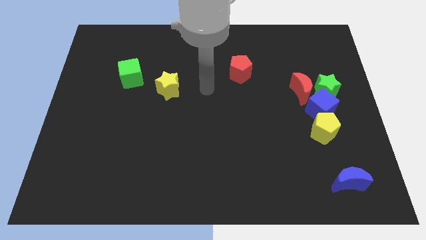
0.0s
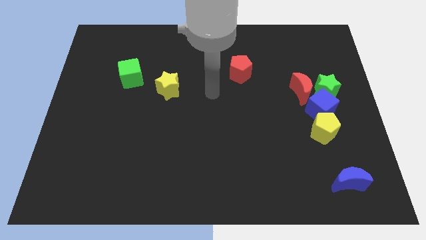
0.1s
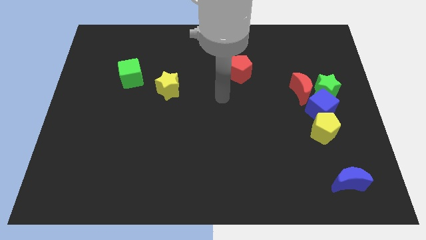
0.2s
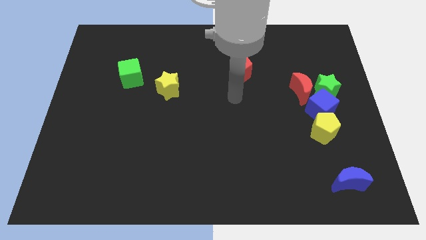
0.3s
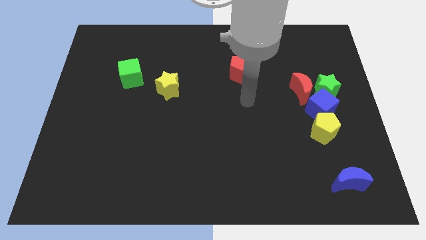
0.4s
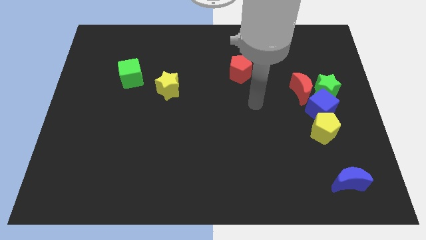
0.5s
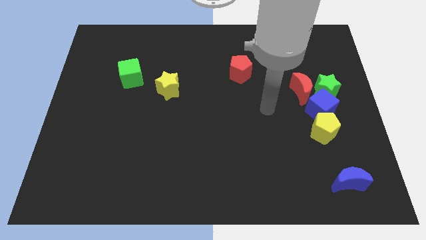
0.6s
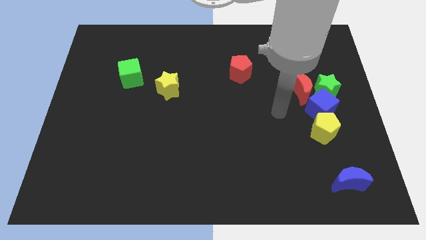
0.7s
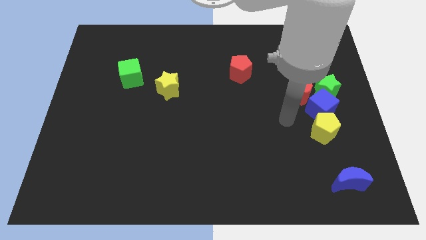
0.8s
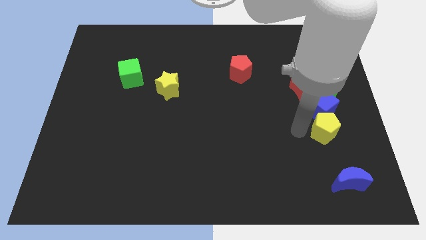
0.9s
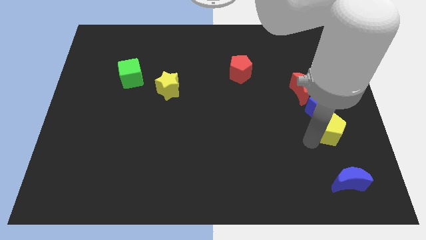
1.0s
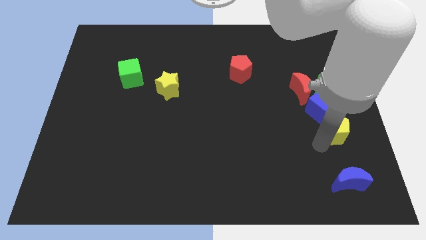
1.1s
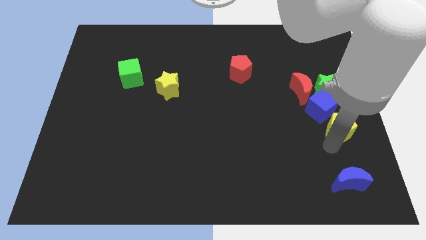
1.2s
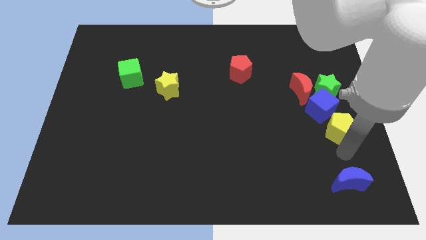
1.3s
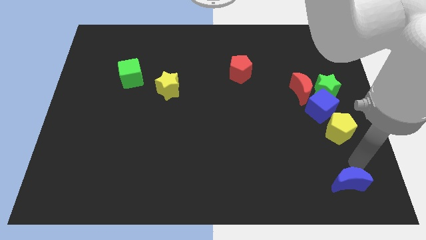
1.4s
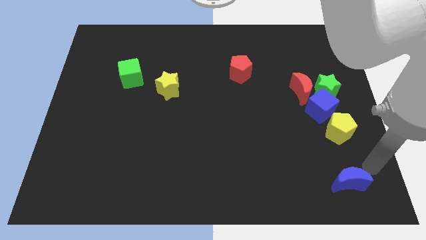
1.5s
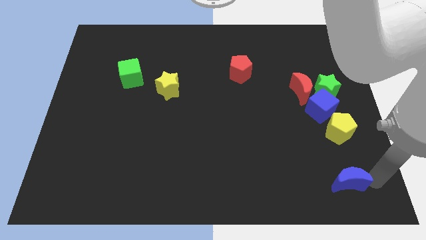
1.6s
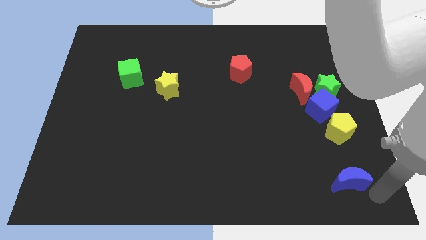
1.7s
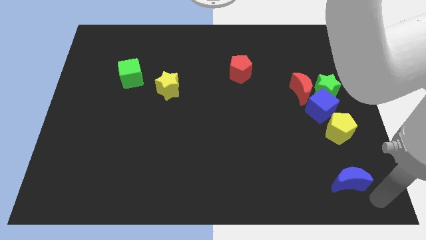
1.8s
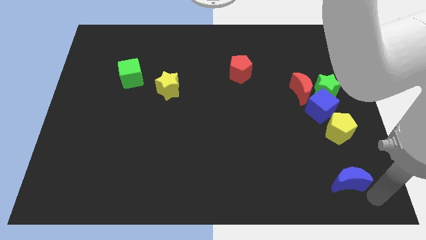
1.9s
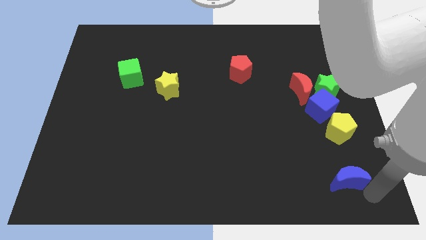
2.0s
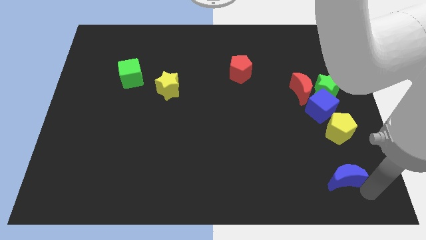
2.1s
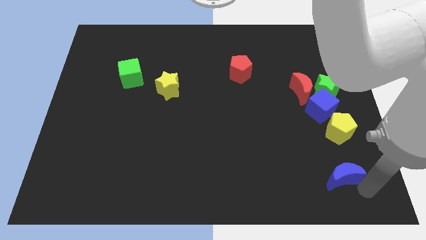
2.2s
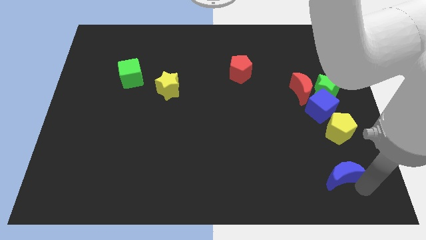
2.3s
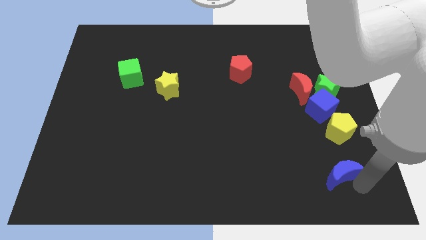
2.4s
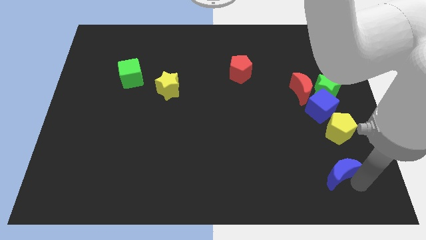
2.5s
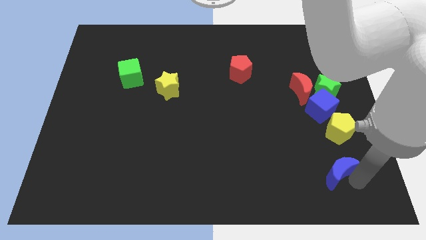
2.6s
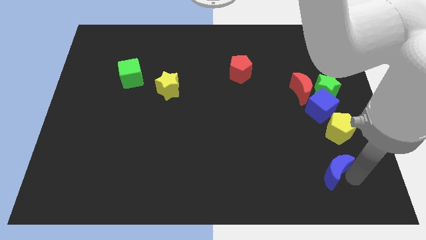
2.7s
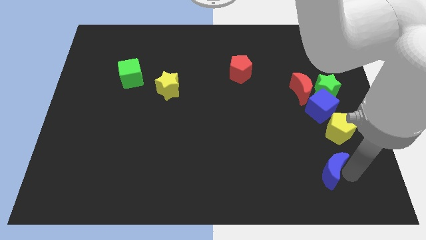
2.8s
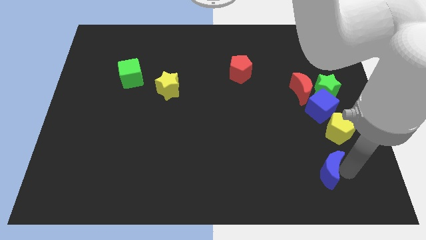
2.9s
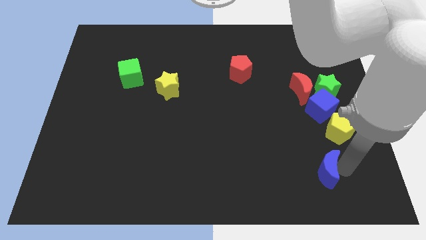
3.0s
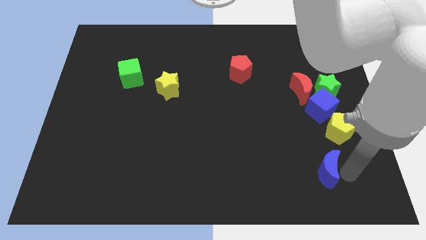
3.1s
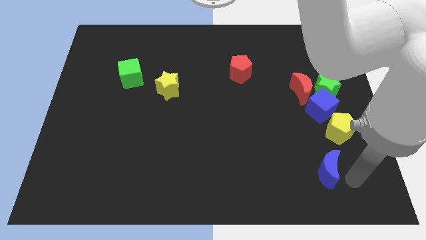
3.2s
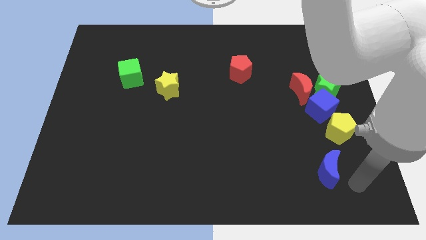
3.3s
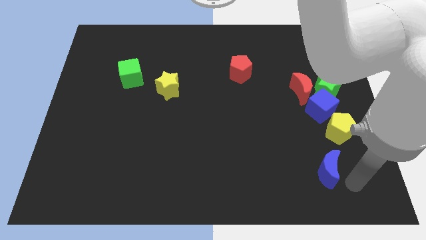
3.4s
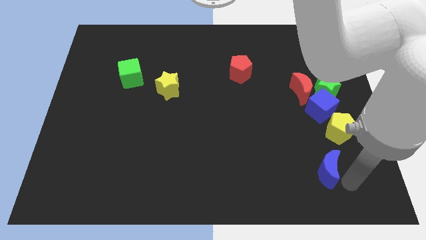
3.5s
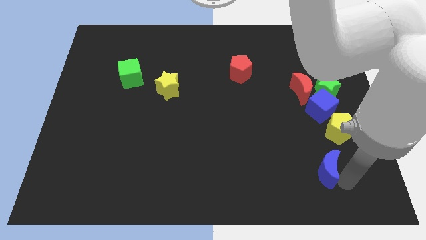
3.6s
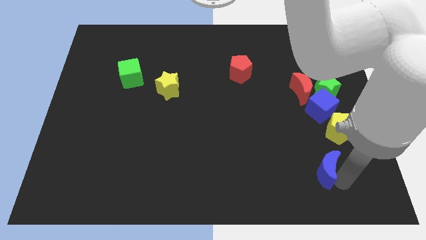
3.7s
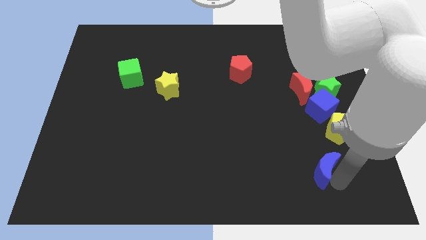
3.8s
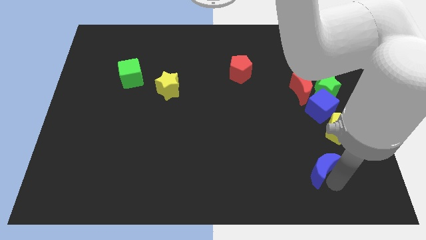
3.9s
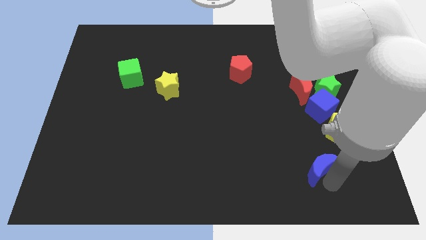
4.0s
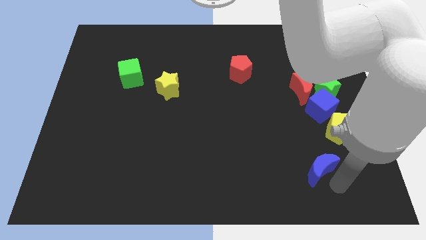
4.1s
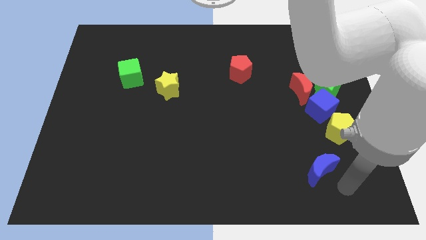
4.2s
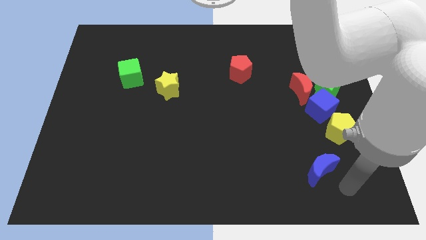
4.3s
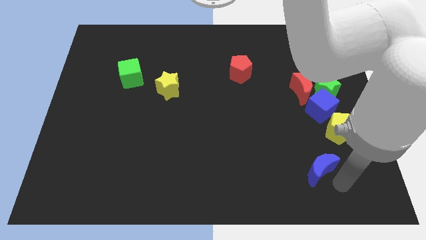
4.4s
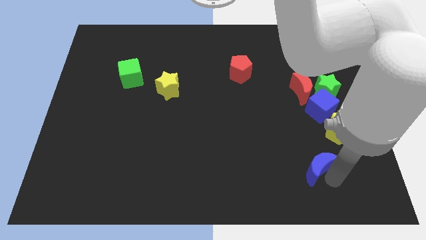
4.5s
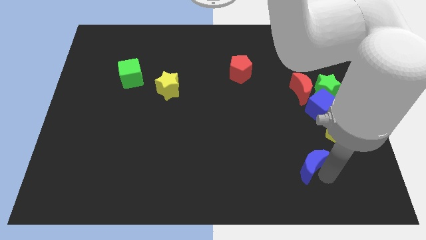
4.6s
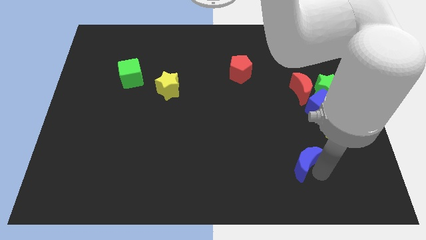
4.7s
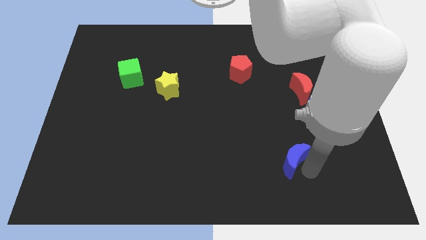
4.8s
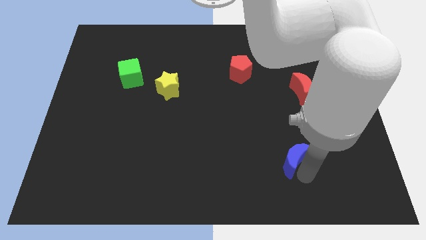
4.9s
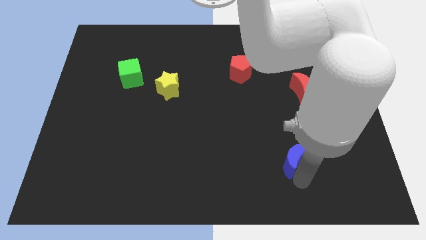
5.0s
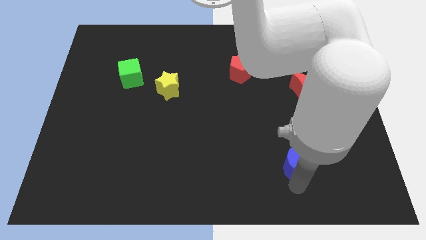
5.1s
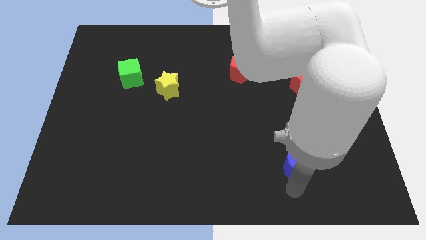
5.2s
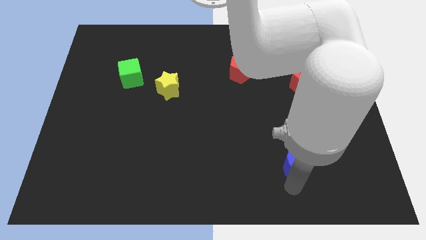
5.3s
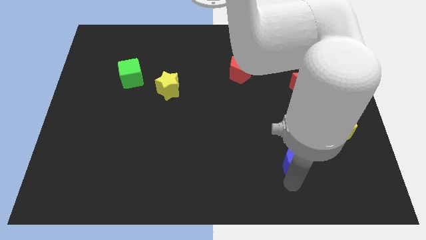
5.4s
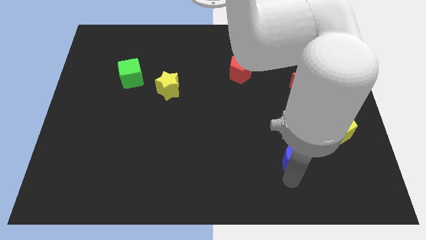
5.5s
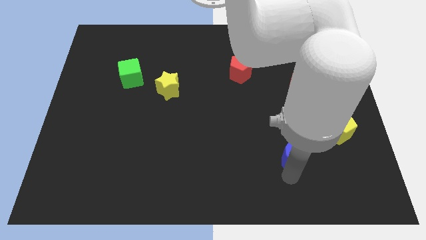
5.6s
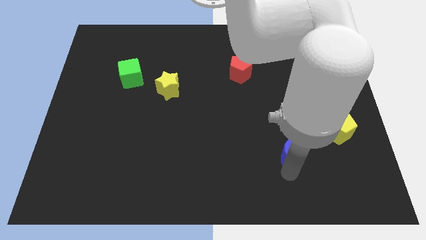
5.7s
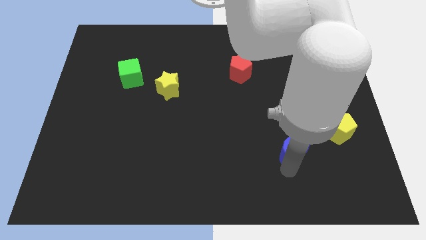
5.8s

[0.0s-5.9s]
push the blue moon to the left side of the yellow pentagon

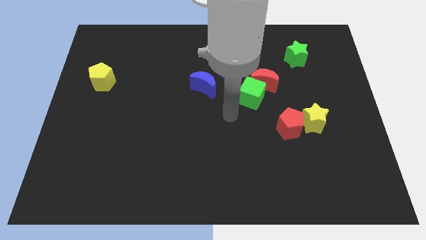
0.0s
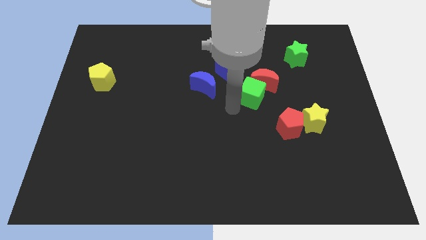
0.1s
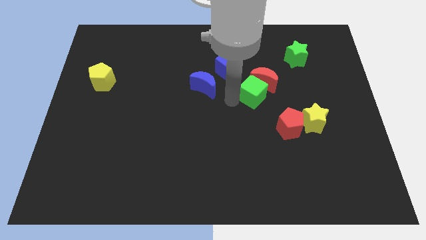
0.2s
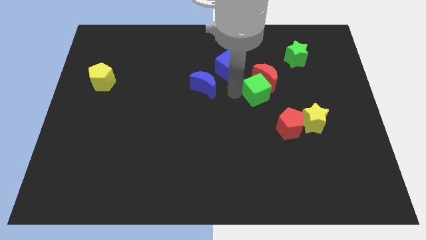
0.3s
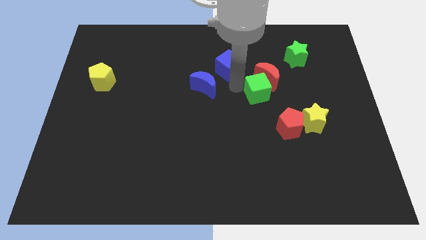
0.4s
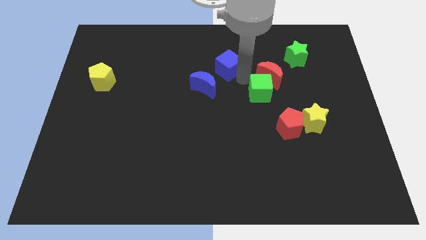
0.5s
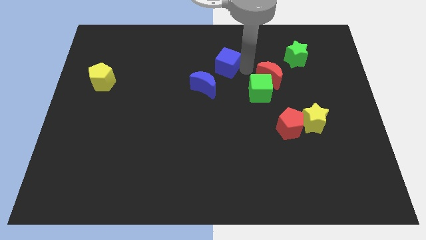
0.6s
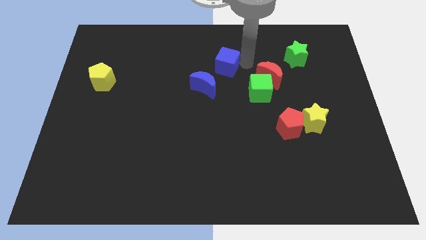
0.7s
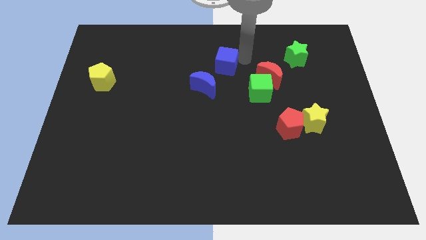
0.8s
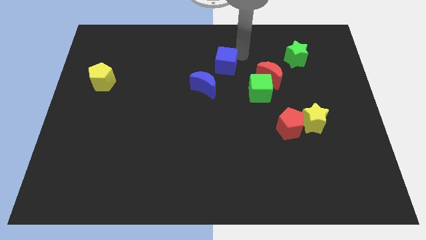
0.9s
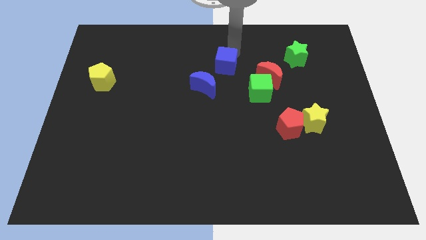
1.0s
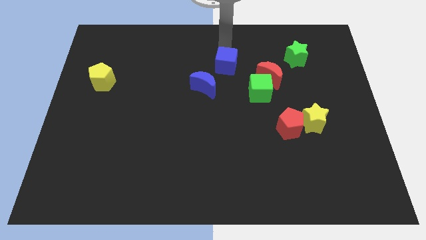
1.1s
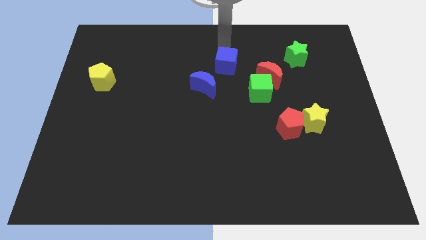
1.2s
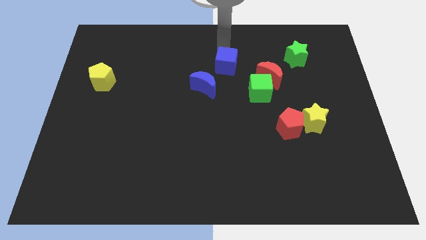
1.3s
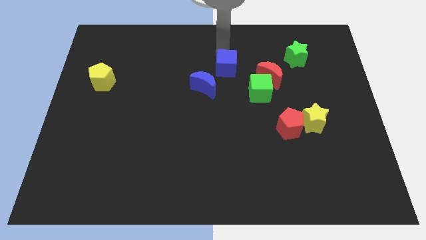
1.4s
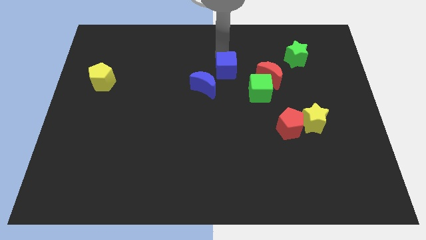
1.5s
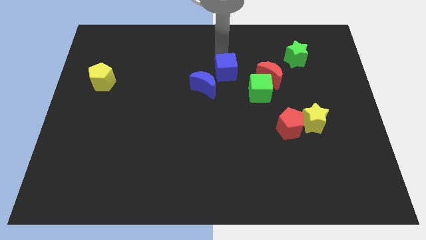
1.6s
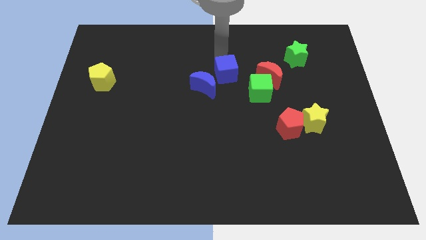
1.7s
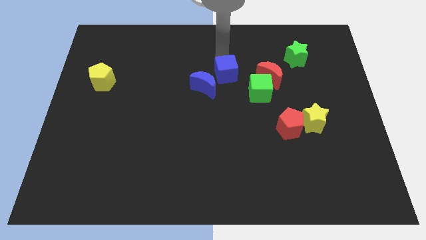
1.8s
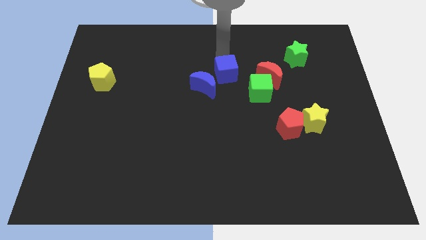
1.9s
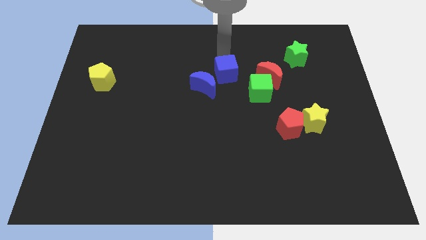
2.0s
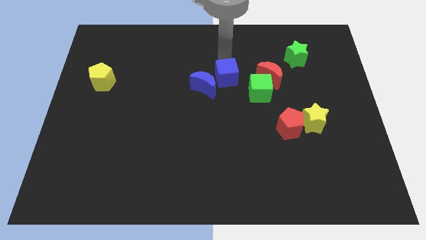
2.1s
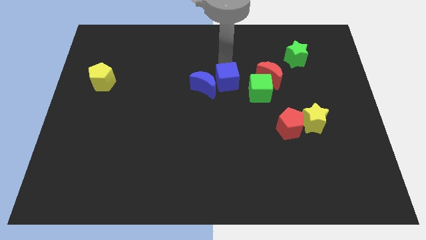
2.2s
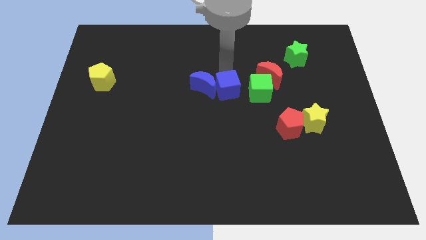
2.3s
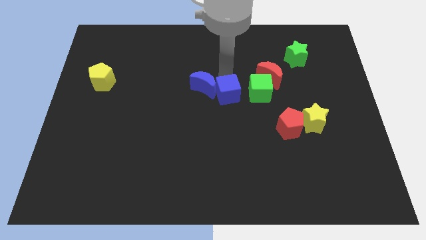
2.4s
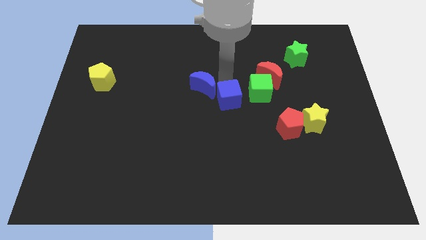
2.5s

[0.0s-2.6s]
put the blue cube to the bottom left side of the green cube
